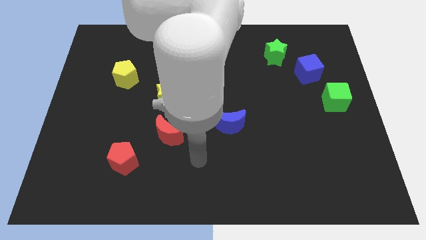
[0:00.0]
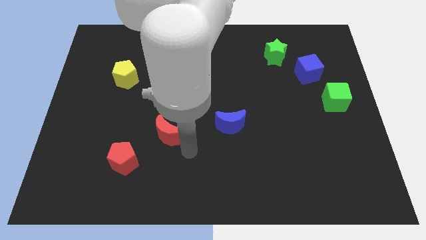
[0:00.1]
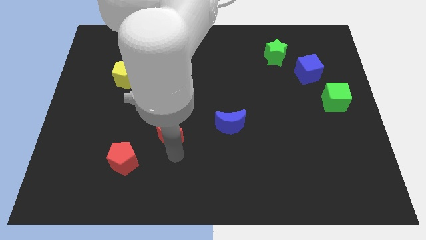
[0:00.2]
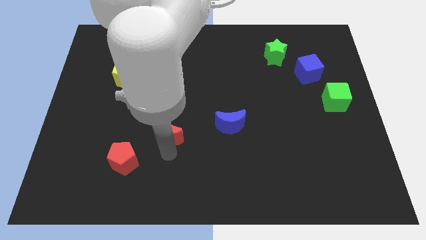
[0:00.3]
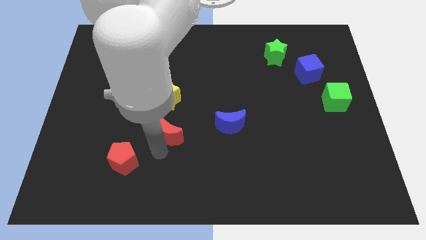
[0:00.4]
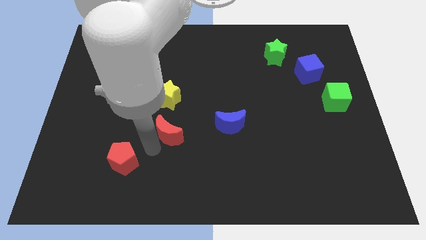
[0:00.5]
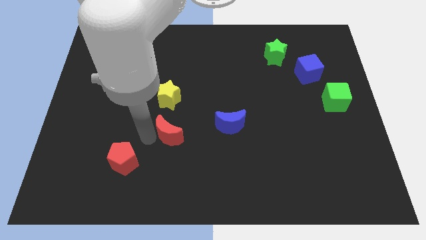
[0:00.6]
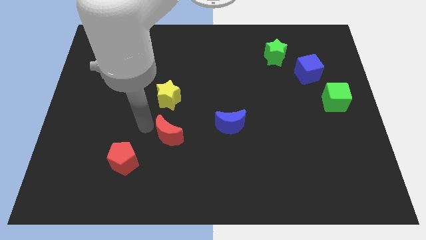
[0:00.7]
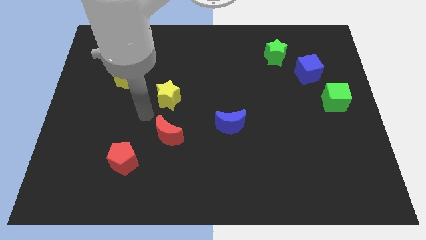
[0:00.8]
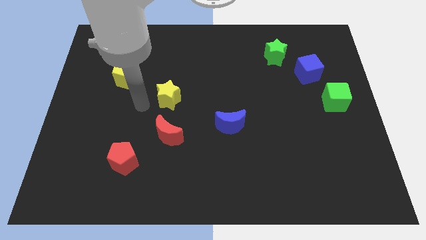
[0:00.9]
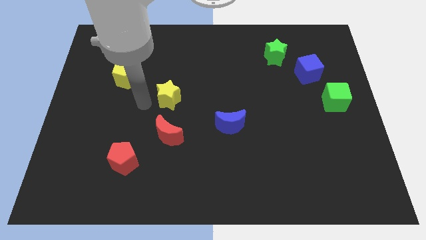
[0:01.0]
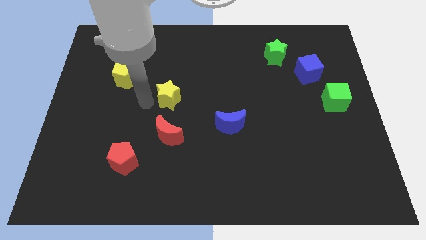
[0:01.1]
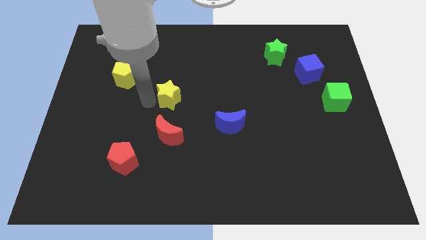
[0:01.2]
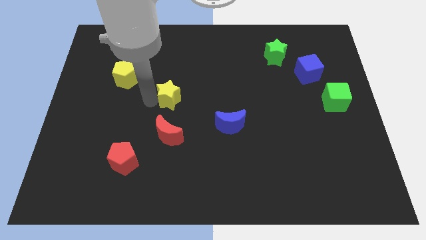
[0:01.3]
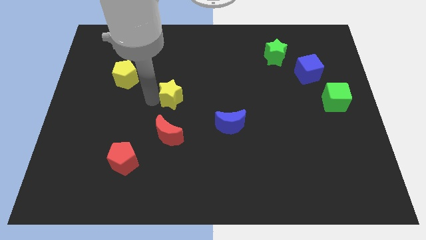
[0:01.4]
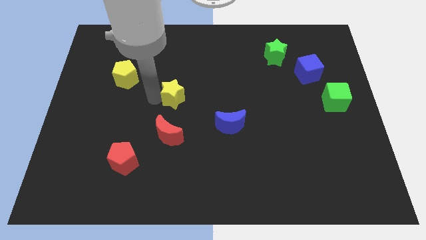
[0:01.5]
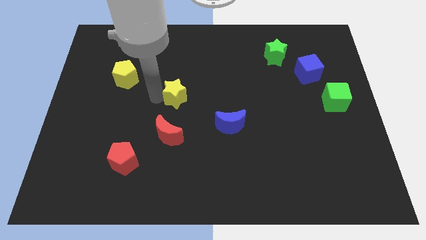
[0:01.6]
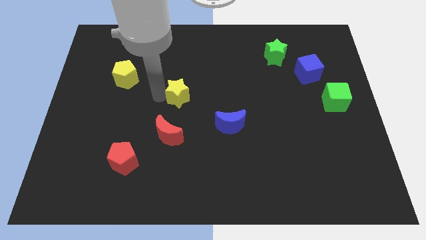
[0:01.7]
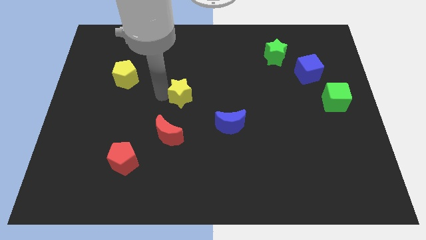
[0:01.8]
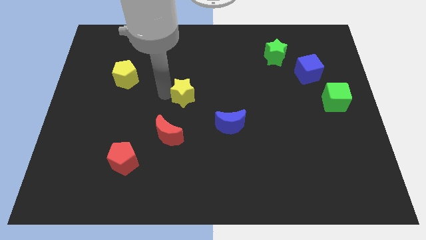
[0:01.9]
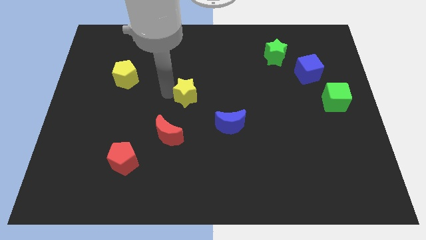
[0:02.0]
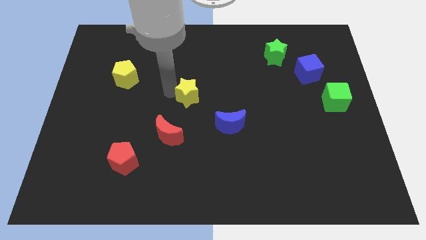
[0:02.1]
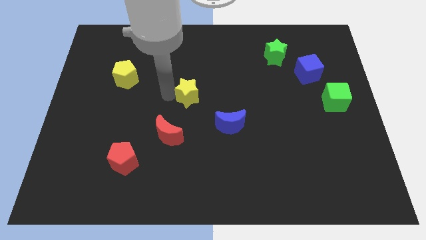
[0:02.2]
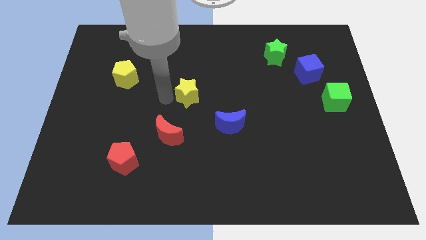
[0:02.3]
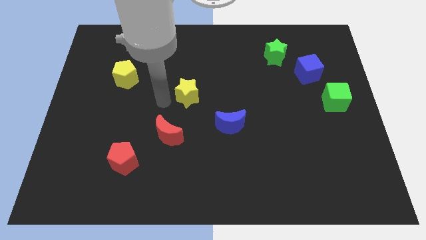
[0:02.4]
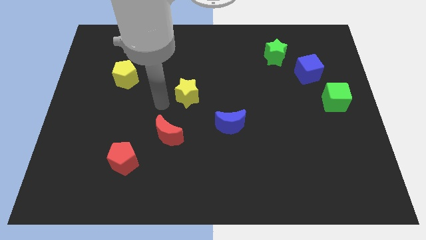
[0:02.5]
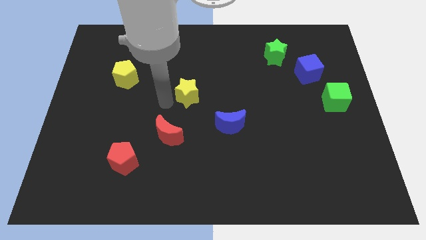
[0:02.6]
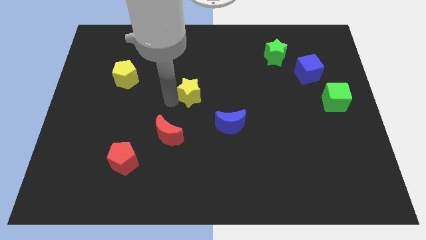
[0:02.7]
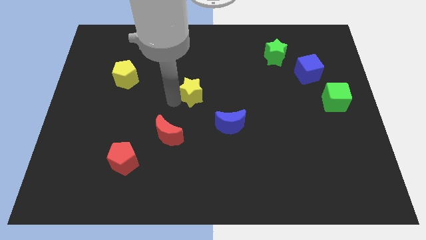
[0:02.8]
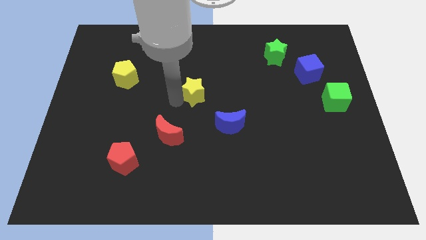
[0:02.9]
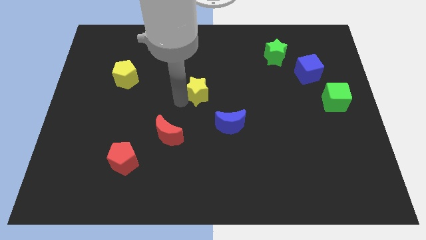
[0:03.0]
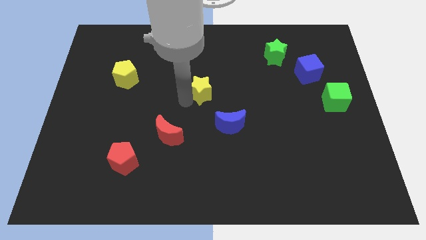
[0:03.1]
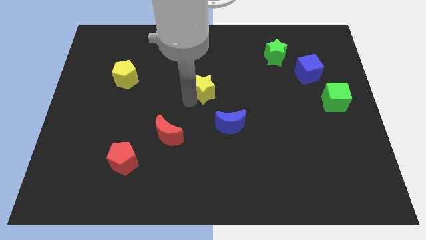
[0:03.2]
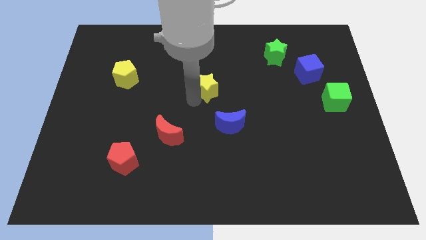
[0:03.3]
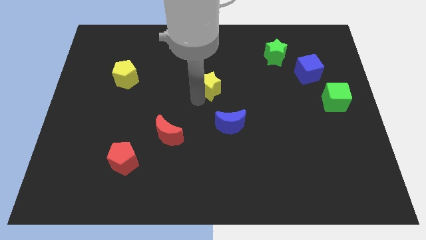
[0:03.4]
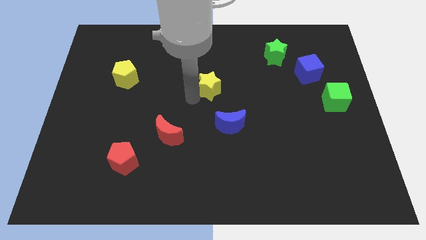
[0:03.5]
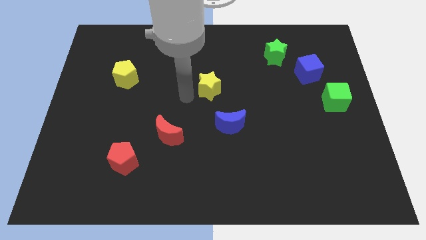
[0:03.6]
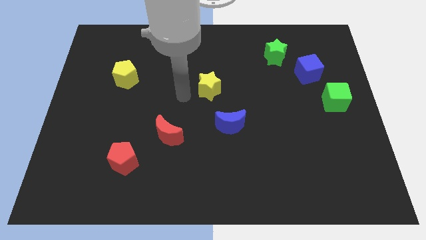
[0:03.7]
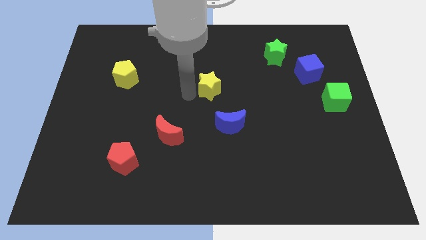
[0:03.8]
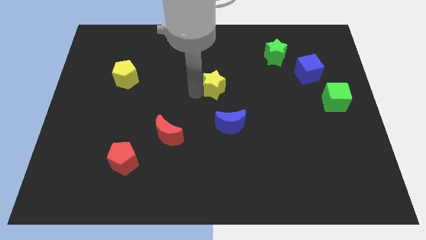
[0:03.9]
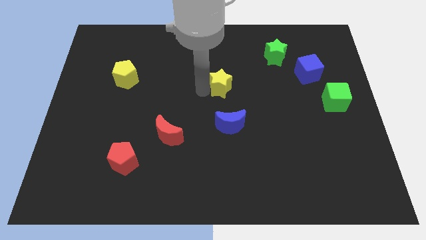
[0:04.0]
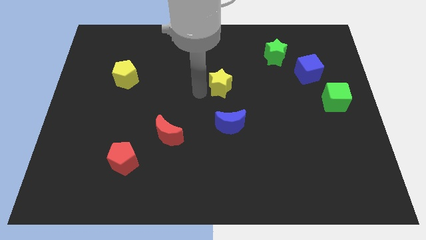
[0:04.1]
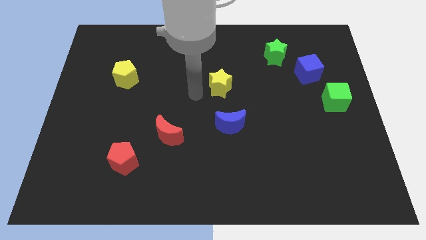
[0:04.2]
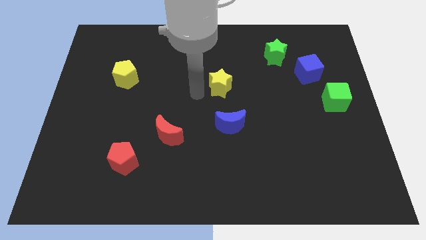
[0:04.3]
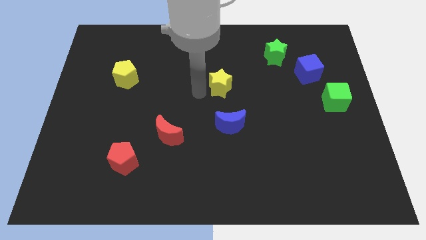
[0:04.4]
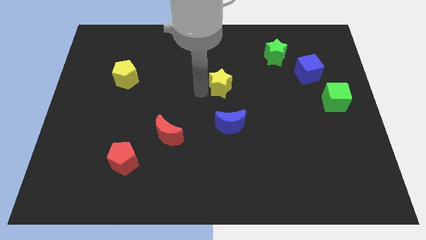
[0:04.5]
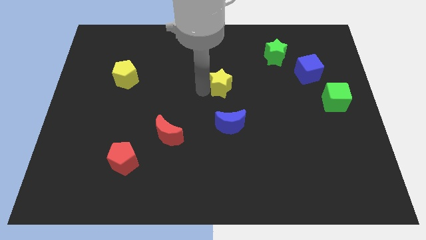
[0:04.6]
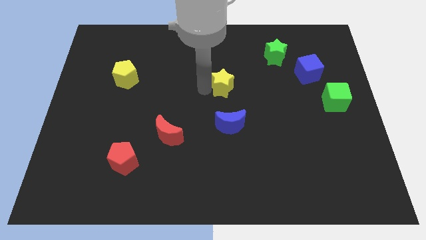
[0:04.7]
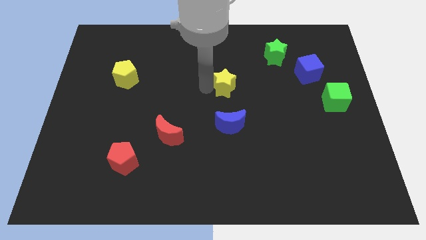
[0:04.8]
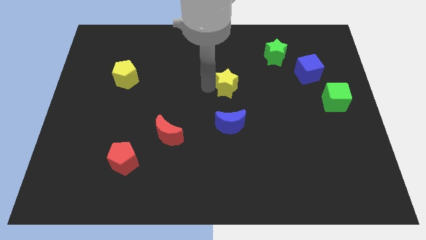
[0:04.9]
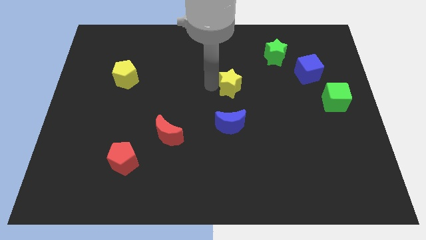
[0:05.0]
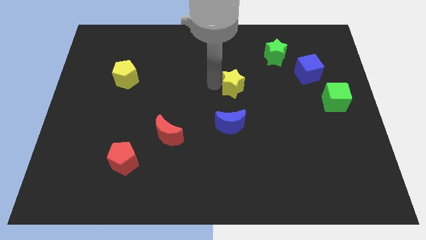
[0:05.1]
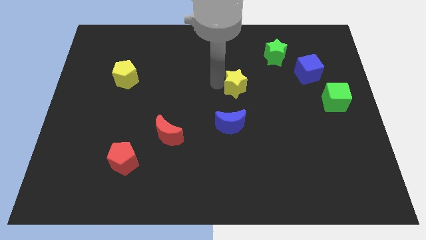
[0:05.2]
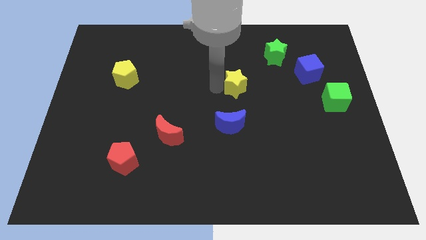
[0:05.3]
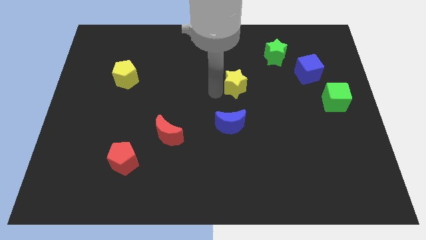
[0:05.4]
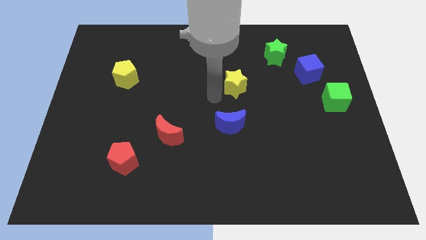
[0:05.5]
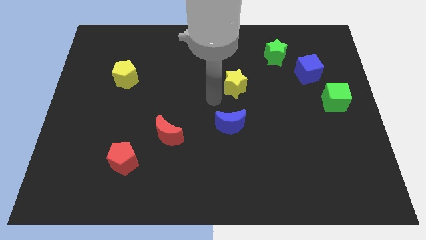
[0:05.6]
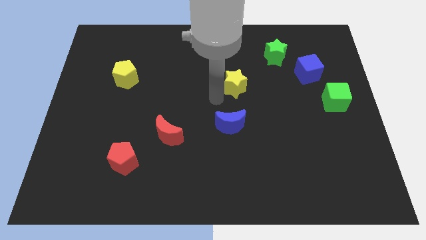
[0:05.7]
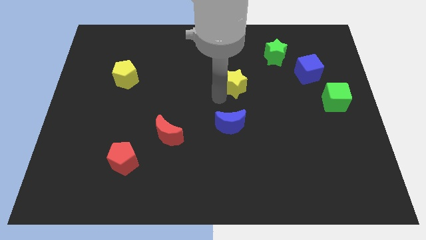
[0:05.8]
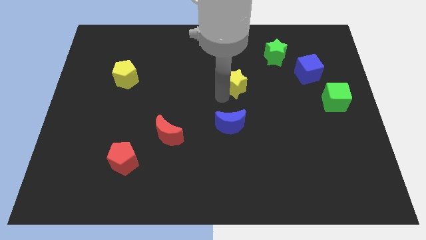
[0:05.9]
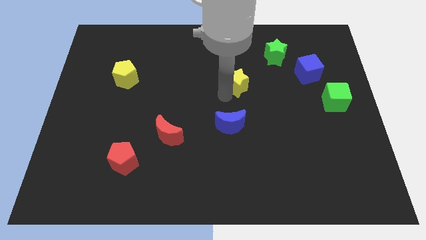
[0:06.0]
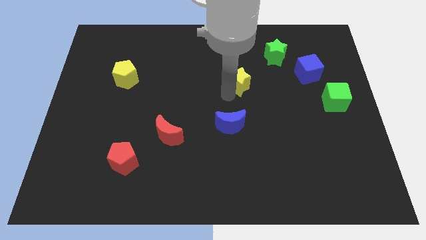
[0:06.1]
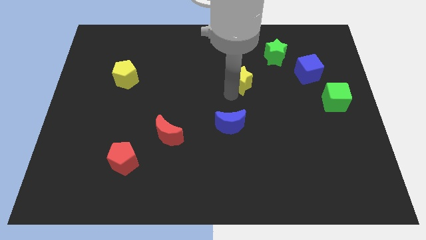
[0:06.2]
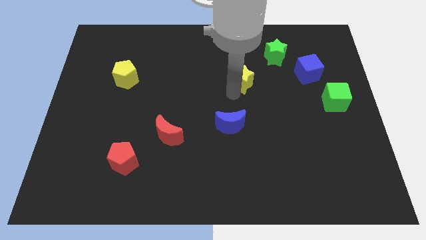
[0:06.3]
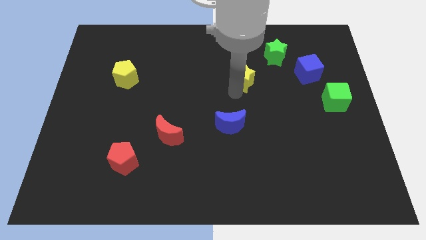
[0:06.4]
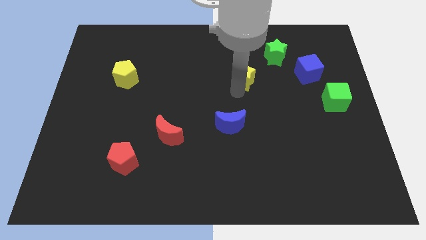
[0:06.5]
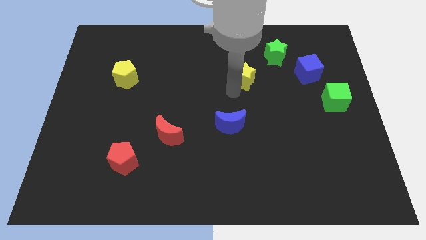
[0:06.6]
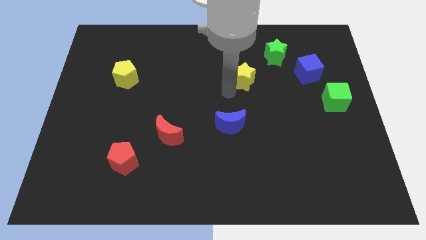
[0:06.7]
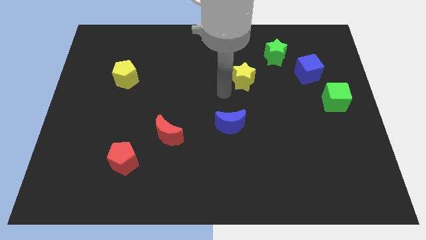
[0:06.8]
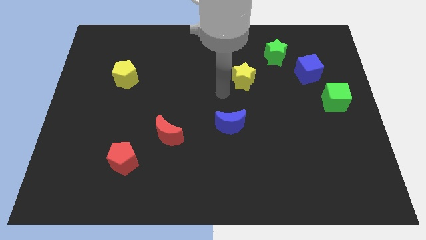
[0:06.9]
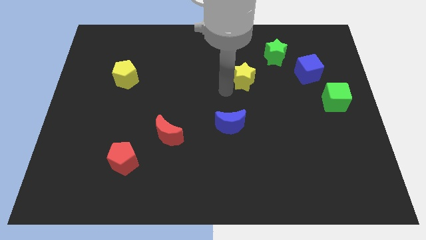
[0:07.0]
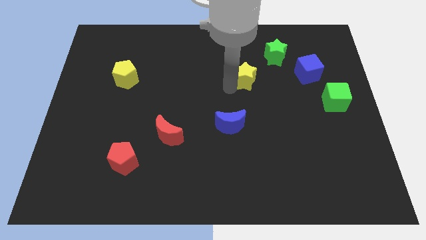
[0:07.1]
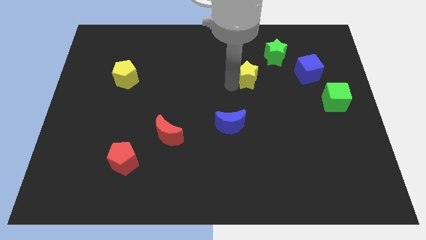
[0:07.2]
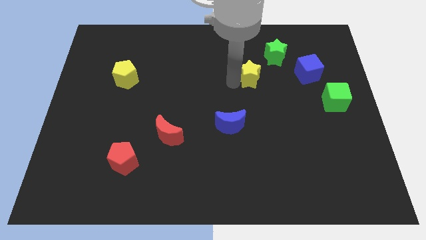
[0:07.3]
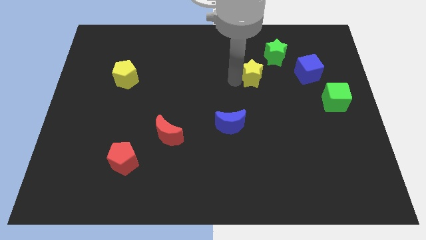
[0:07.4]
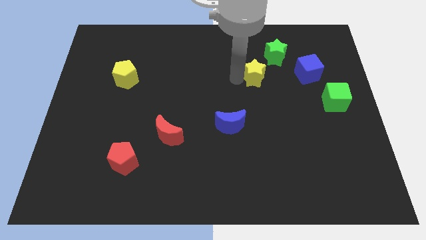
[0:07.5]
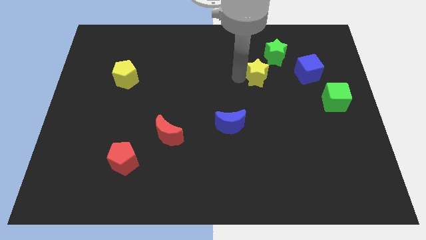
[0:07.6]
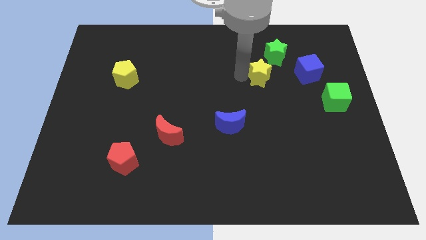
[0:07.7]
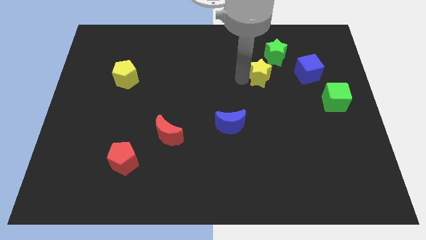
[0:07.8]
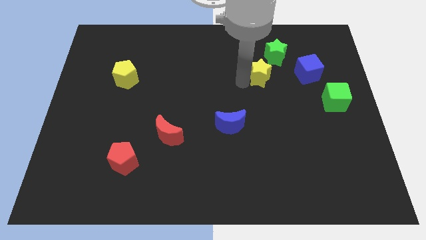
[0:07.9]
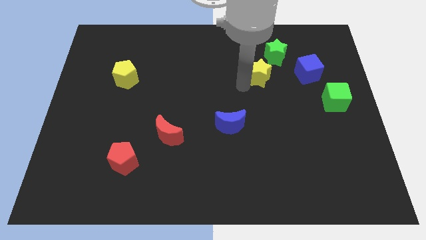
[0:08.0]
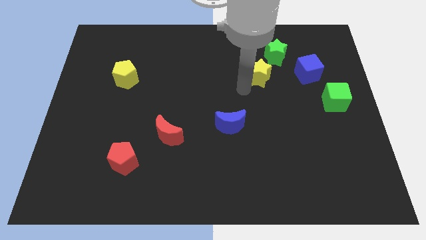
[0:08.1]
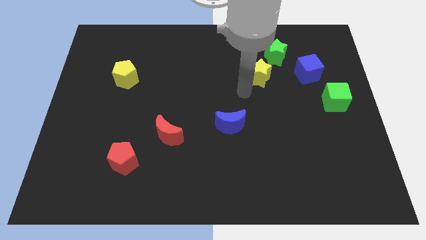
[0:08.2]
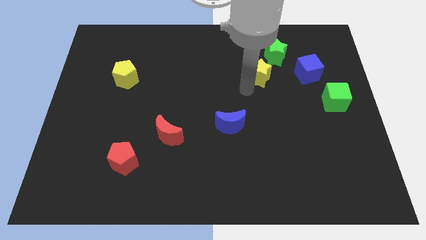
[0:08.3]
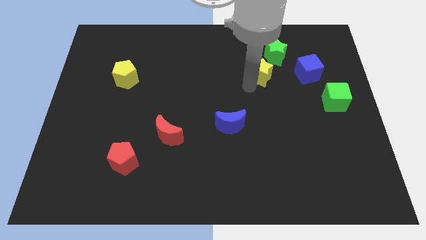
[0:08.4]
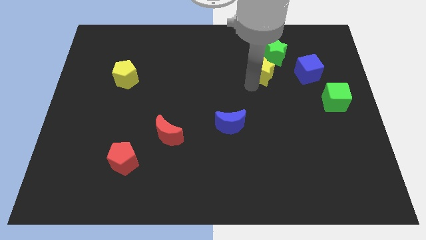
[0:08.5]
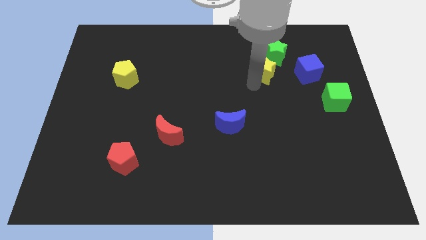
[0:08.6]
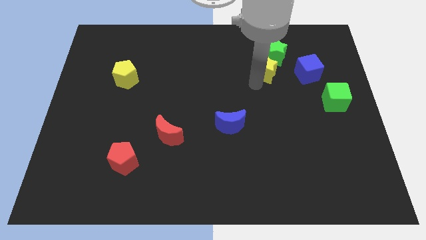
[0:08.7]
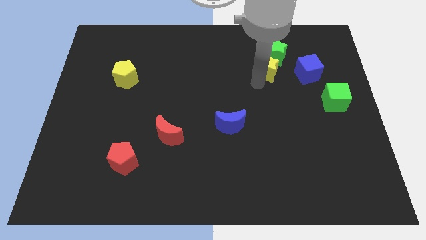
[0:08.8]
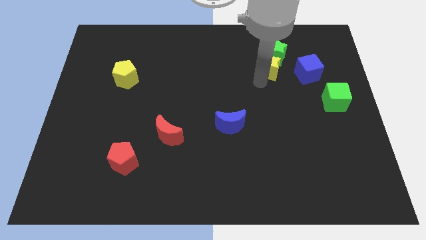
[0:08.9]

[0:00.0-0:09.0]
slide the yellow star towards the green star
